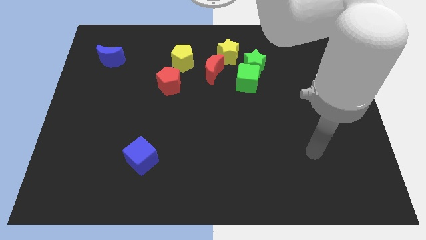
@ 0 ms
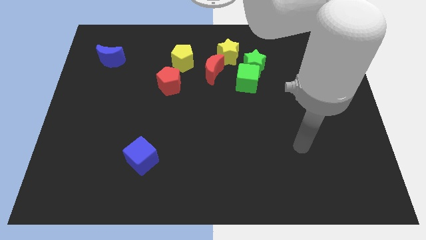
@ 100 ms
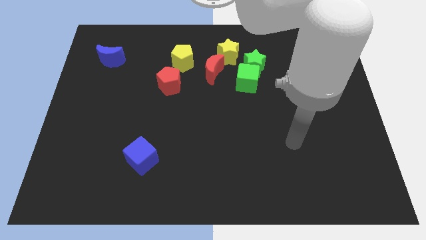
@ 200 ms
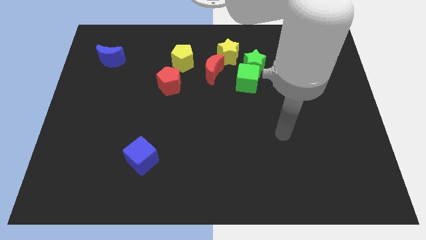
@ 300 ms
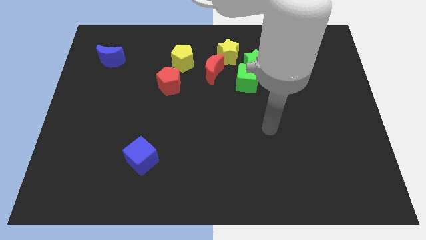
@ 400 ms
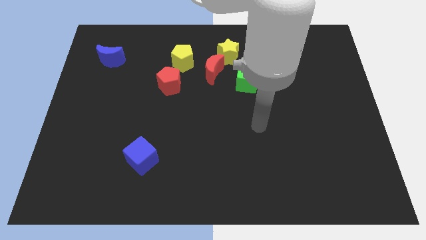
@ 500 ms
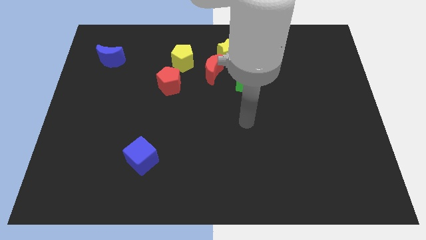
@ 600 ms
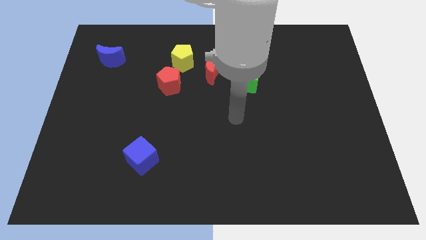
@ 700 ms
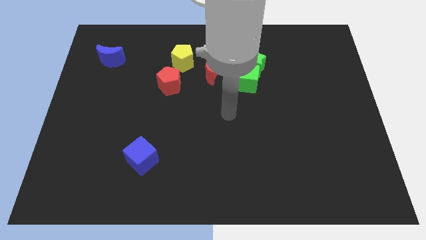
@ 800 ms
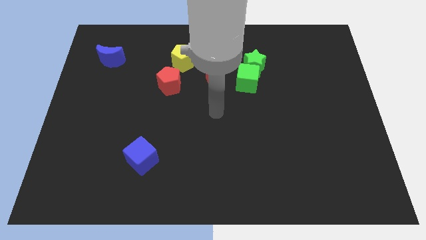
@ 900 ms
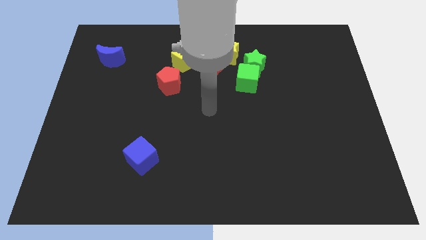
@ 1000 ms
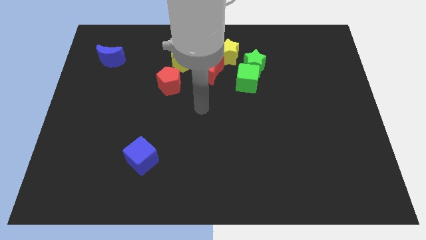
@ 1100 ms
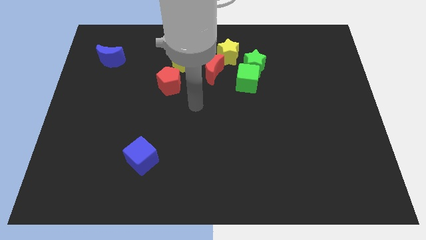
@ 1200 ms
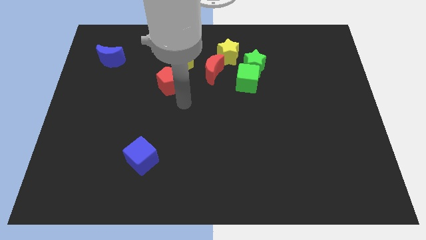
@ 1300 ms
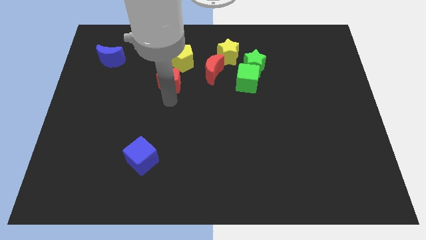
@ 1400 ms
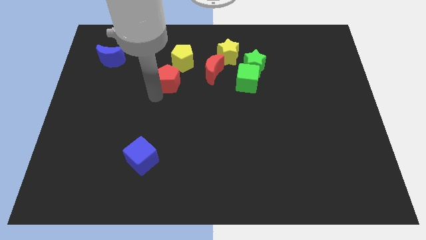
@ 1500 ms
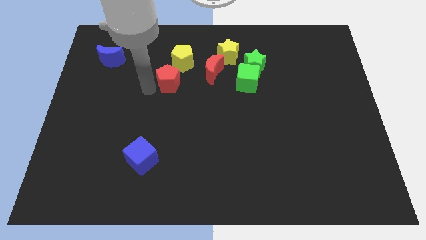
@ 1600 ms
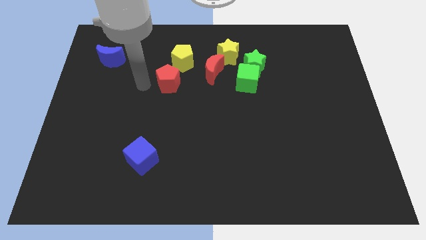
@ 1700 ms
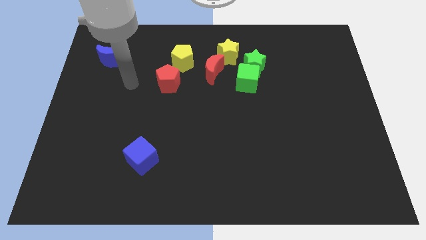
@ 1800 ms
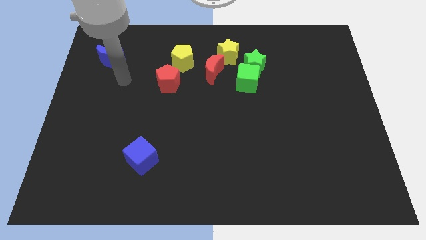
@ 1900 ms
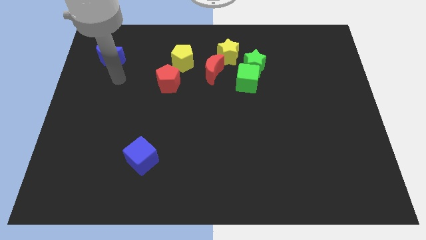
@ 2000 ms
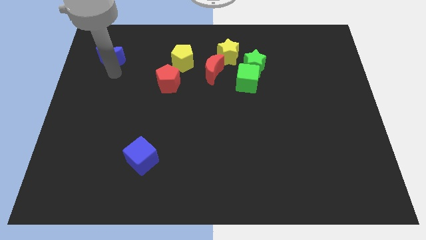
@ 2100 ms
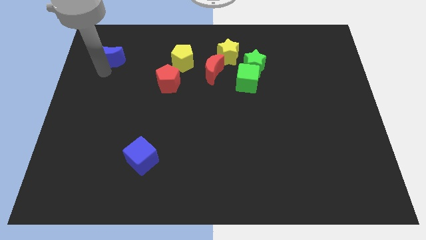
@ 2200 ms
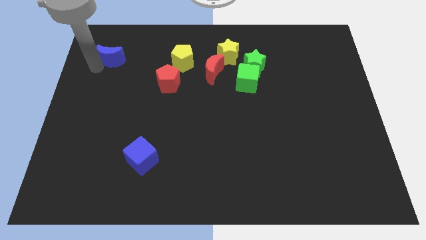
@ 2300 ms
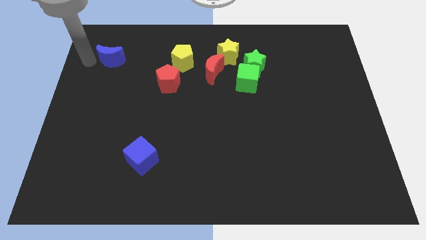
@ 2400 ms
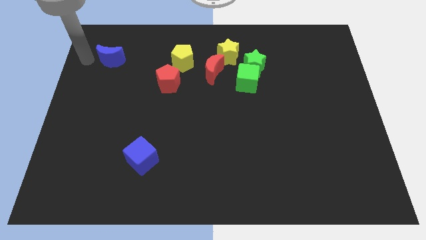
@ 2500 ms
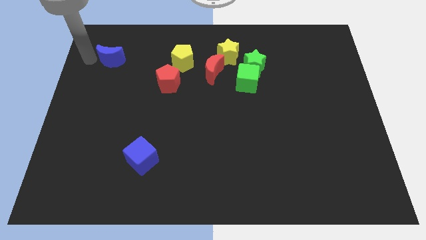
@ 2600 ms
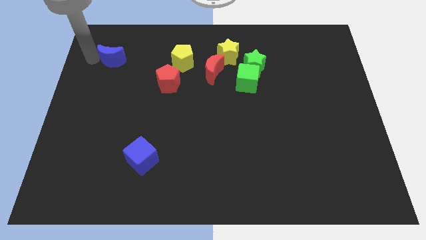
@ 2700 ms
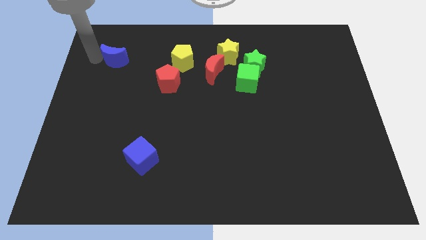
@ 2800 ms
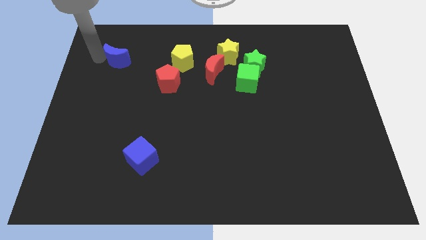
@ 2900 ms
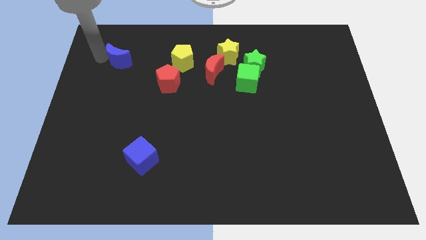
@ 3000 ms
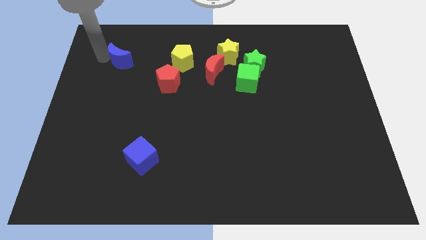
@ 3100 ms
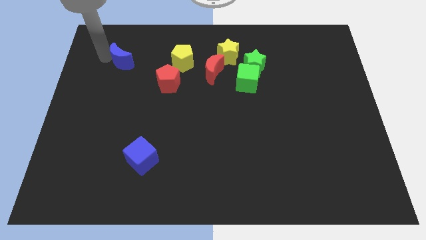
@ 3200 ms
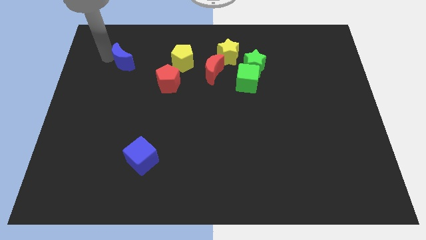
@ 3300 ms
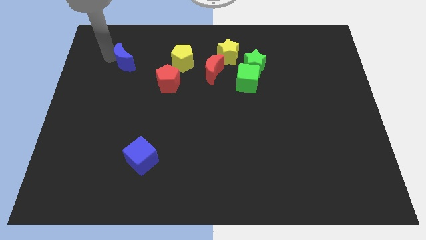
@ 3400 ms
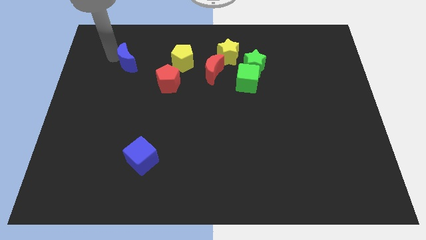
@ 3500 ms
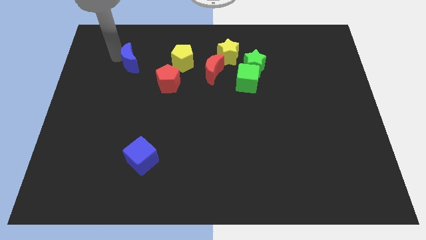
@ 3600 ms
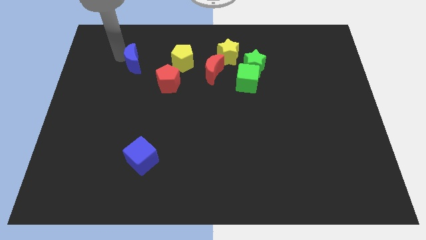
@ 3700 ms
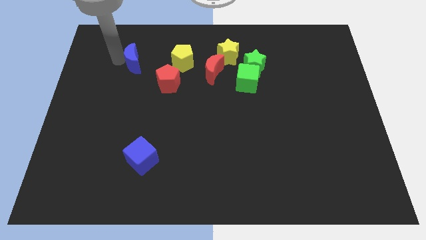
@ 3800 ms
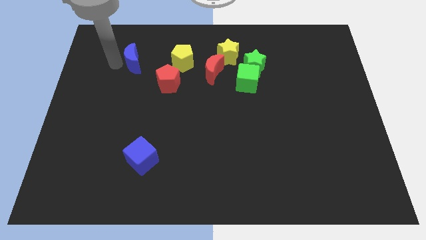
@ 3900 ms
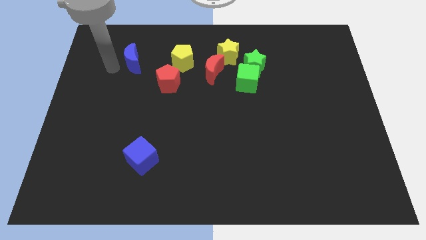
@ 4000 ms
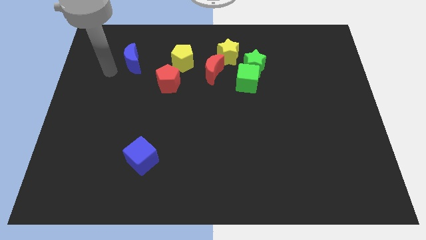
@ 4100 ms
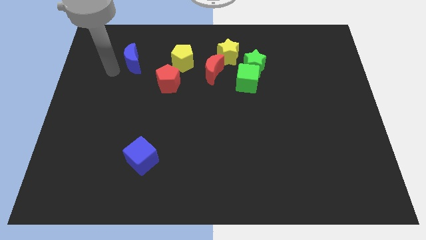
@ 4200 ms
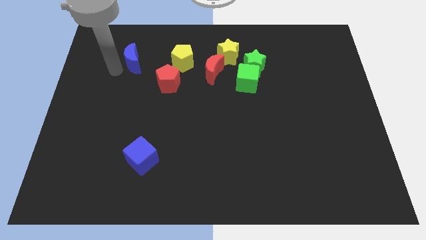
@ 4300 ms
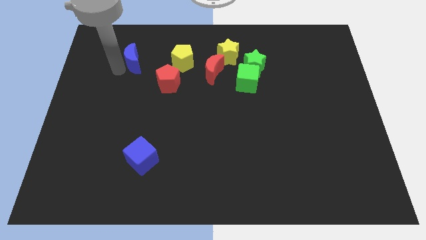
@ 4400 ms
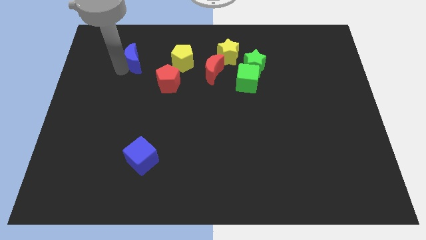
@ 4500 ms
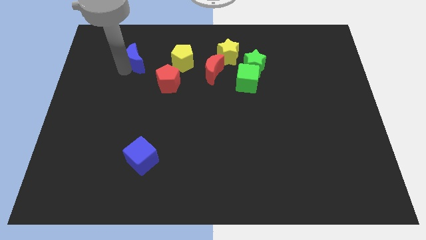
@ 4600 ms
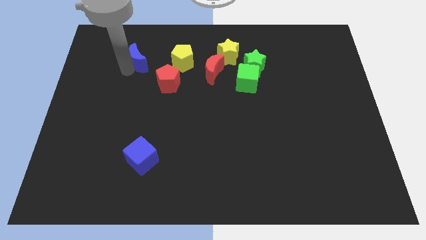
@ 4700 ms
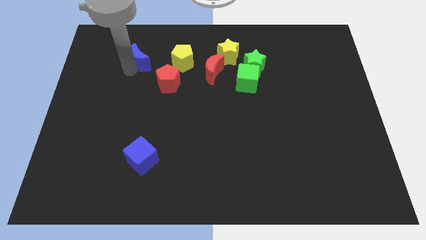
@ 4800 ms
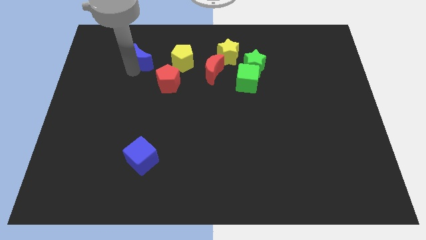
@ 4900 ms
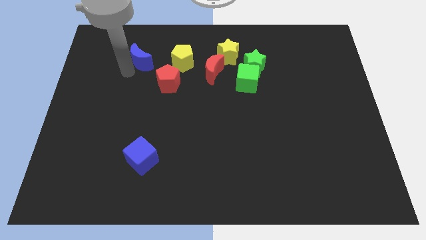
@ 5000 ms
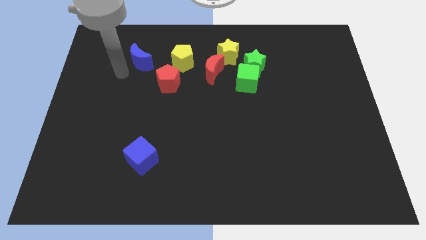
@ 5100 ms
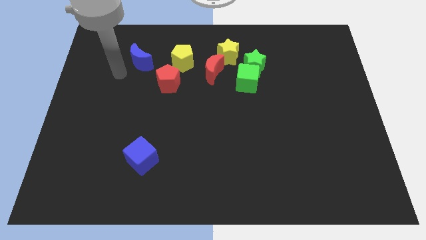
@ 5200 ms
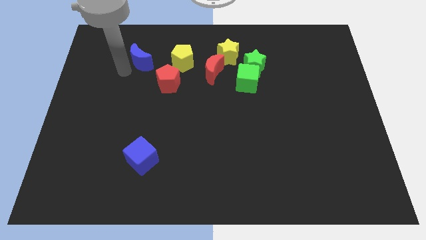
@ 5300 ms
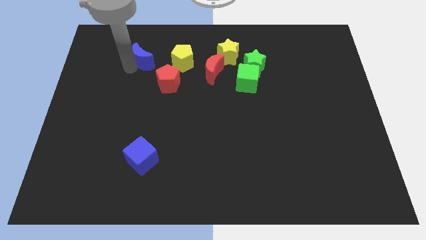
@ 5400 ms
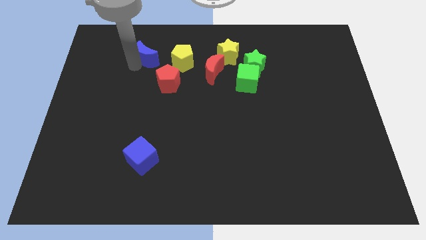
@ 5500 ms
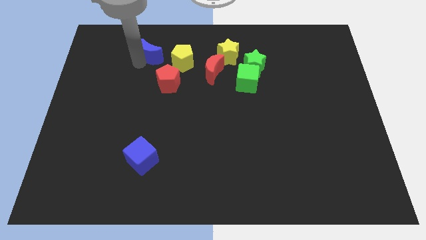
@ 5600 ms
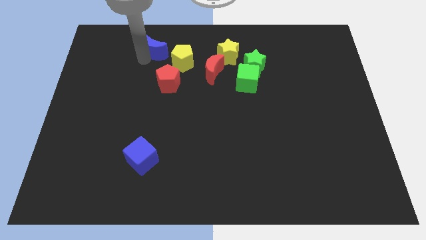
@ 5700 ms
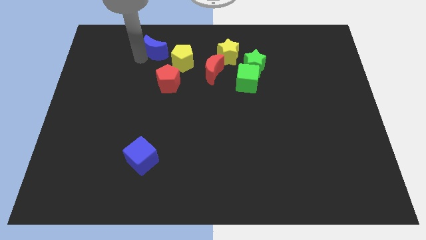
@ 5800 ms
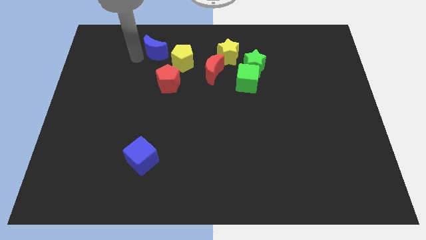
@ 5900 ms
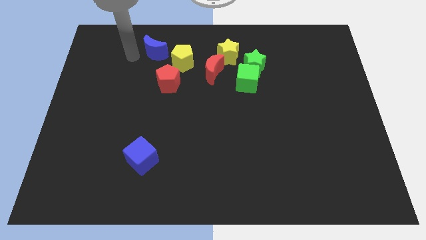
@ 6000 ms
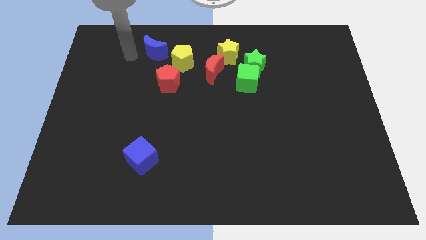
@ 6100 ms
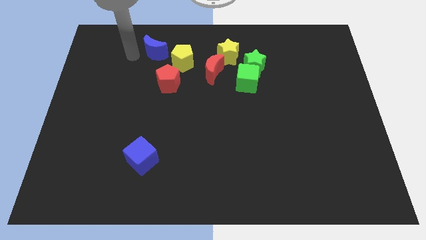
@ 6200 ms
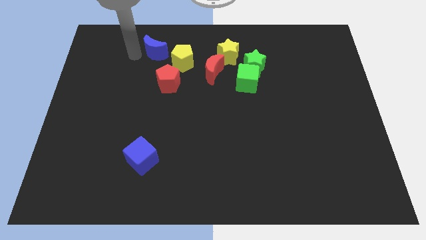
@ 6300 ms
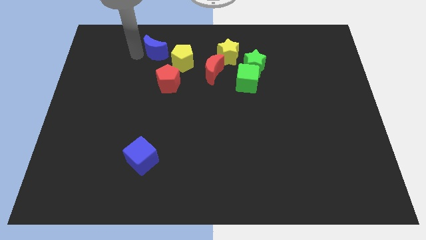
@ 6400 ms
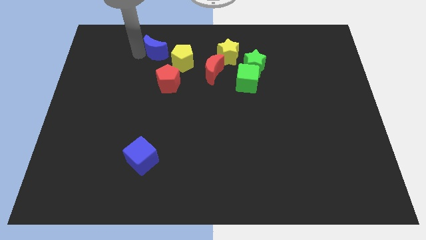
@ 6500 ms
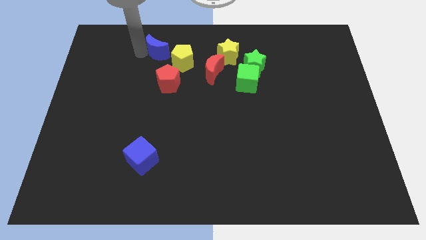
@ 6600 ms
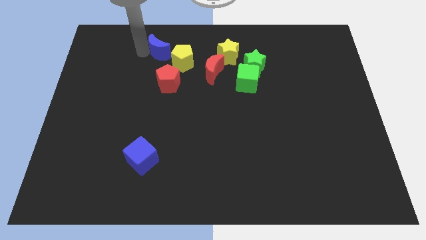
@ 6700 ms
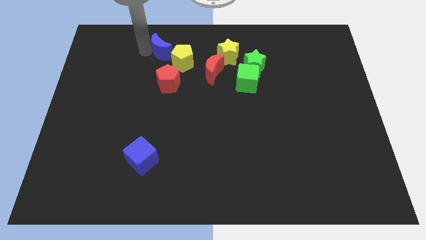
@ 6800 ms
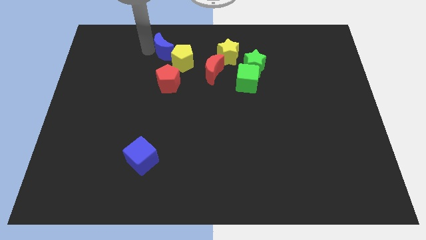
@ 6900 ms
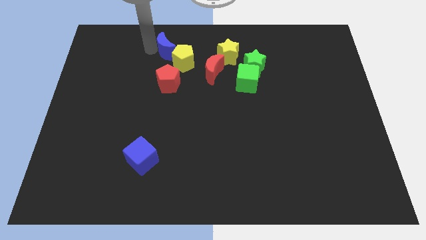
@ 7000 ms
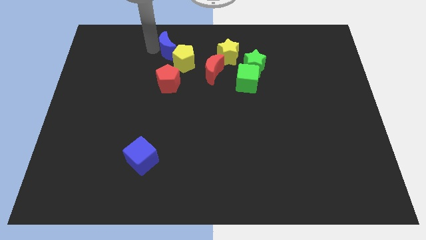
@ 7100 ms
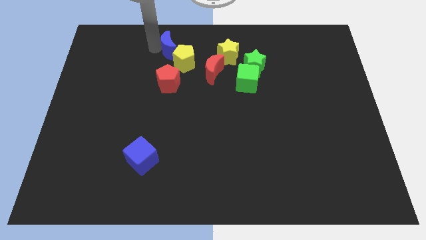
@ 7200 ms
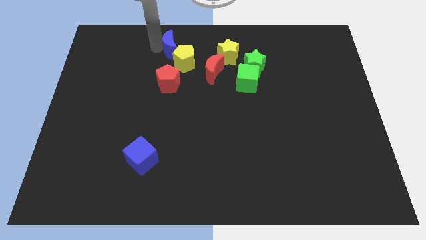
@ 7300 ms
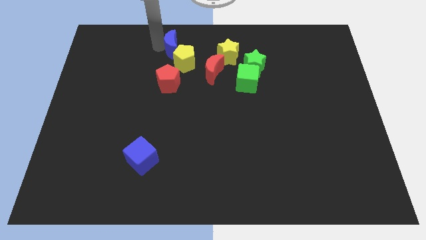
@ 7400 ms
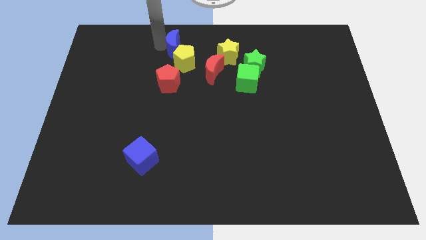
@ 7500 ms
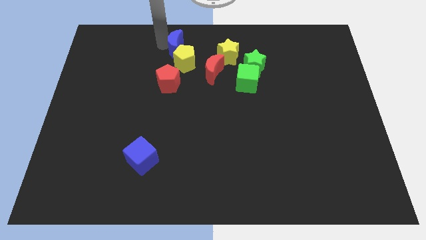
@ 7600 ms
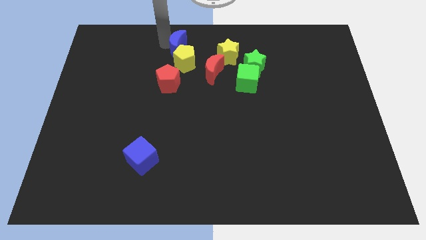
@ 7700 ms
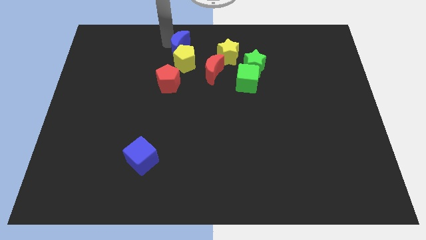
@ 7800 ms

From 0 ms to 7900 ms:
move the blue moon to the top left side of the red moon

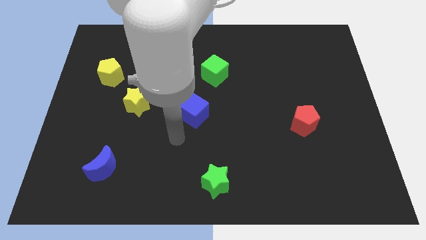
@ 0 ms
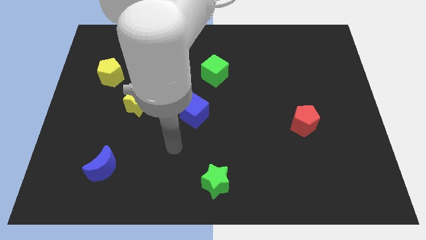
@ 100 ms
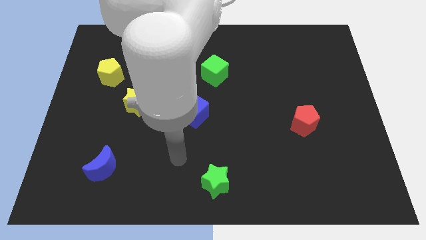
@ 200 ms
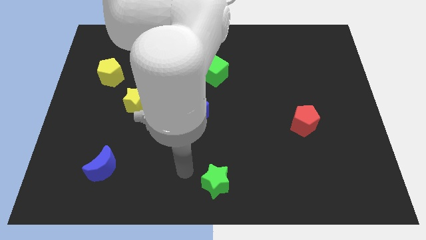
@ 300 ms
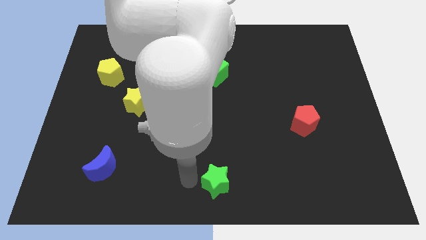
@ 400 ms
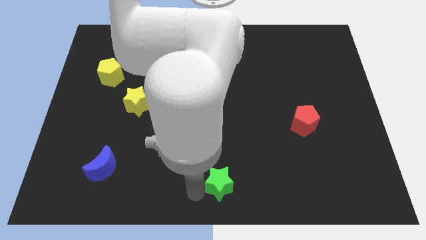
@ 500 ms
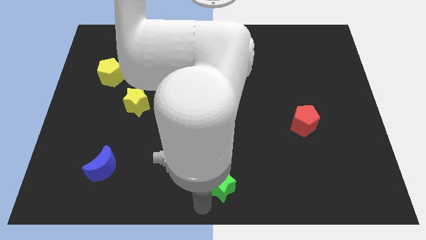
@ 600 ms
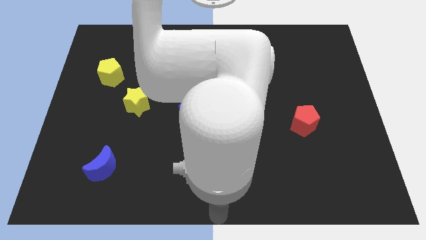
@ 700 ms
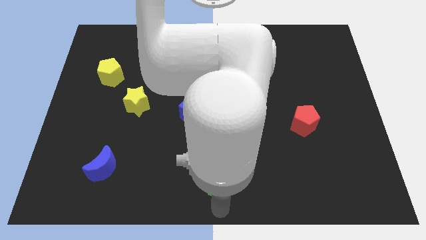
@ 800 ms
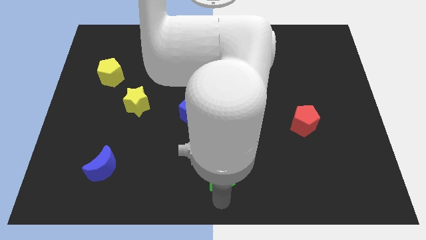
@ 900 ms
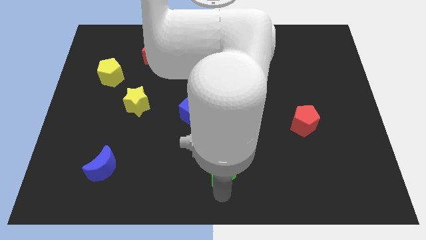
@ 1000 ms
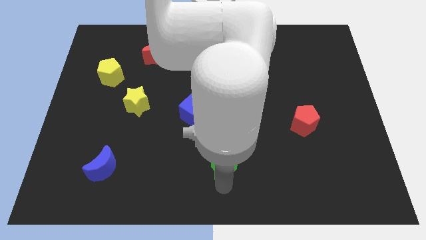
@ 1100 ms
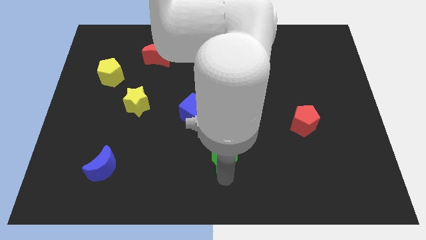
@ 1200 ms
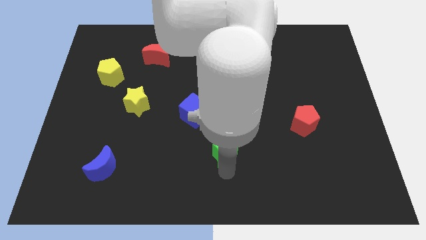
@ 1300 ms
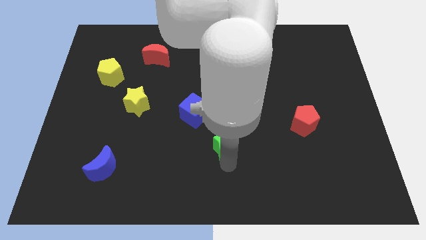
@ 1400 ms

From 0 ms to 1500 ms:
put the green star diagonally down and to the right of the blue cube
